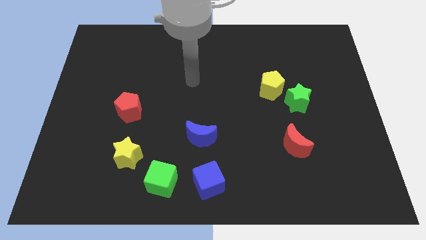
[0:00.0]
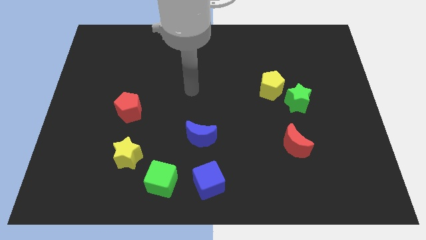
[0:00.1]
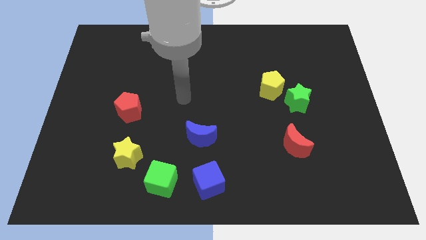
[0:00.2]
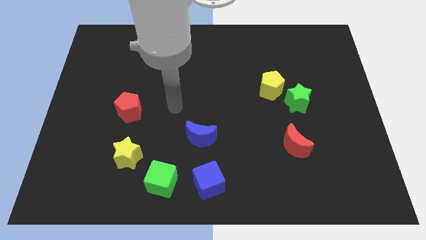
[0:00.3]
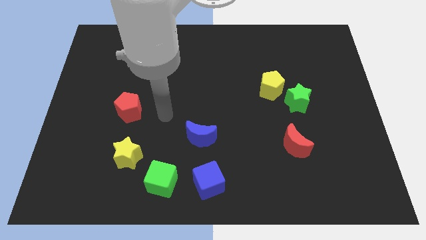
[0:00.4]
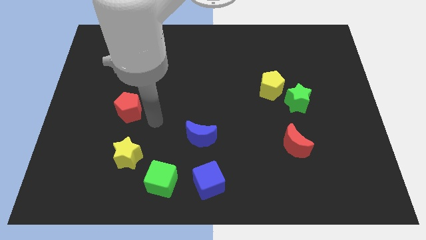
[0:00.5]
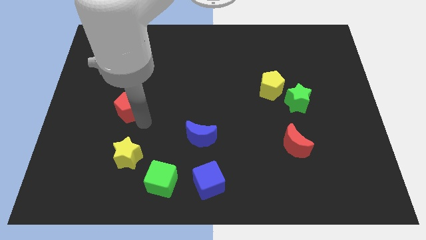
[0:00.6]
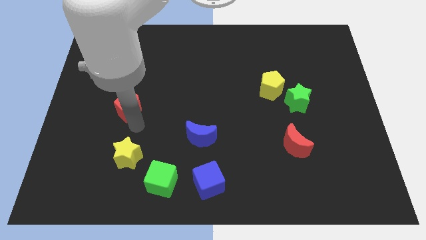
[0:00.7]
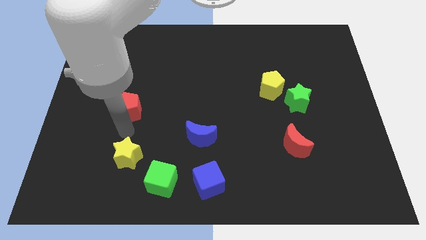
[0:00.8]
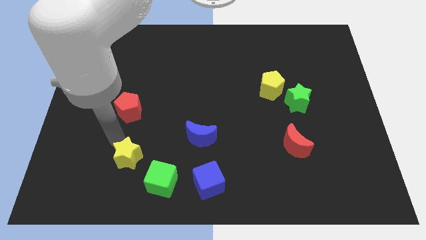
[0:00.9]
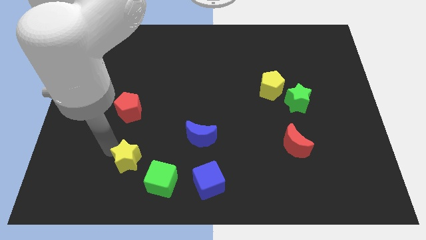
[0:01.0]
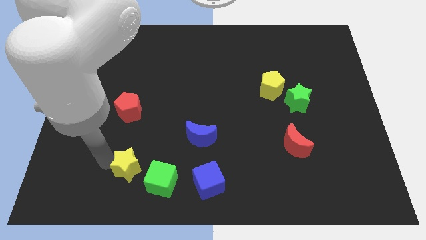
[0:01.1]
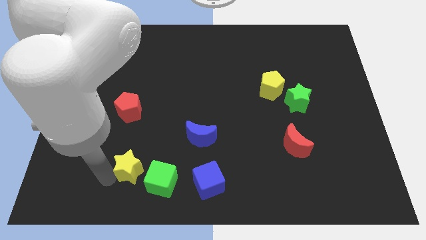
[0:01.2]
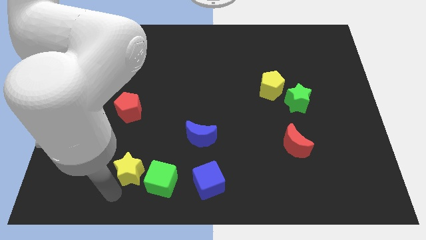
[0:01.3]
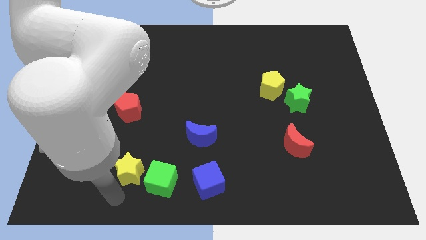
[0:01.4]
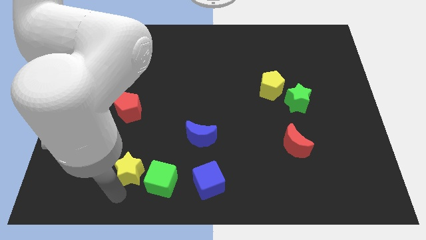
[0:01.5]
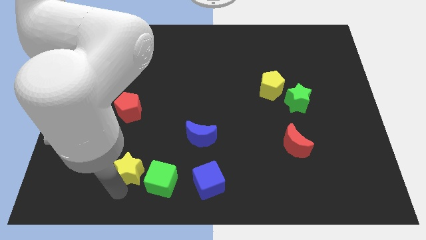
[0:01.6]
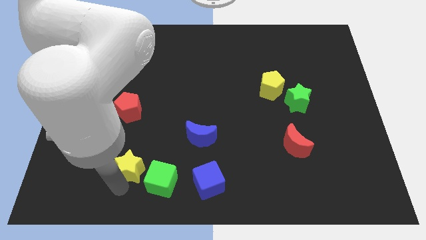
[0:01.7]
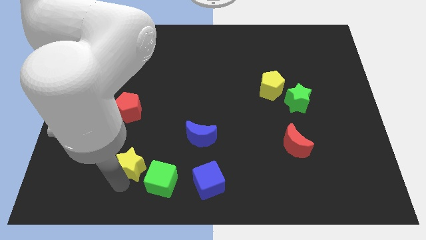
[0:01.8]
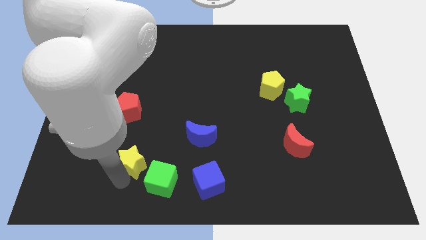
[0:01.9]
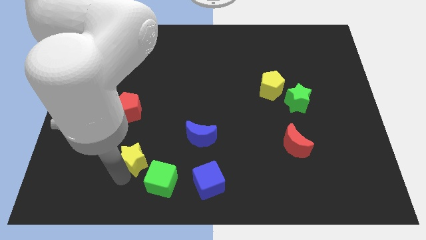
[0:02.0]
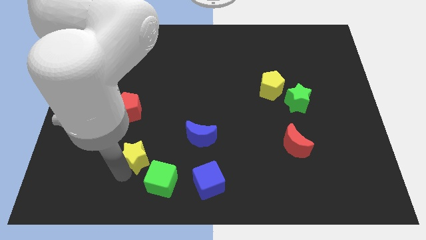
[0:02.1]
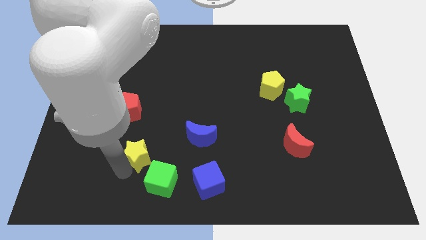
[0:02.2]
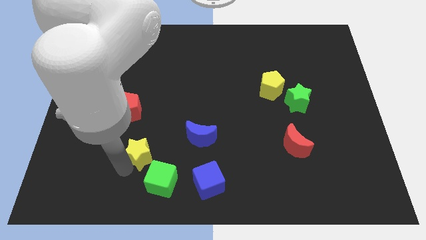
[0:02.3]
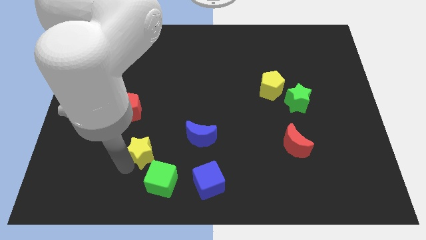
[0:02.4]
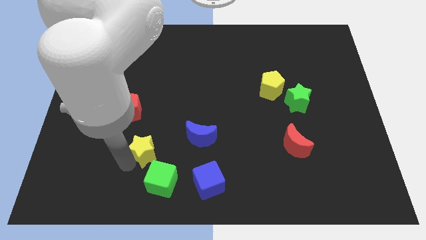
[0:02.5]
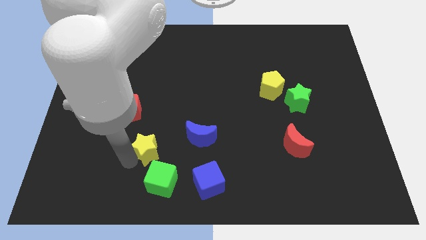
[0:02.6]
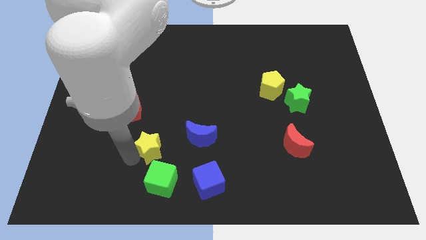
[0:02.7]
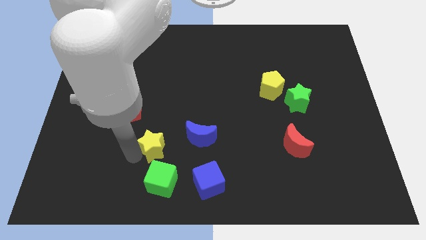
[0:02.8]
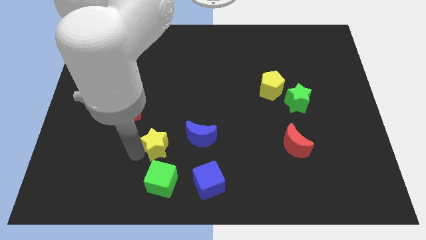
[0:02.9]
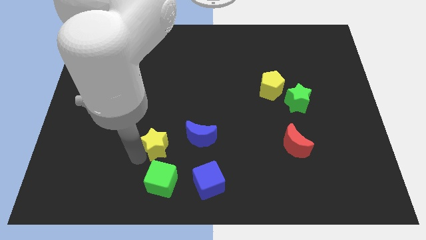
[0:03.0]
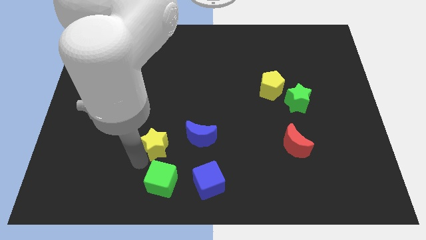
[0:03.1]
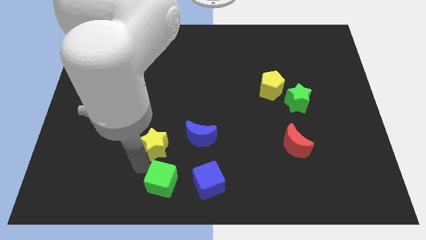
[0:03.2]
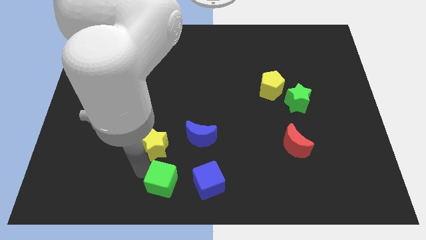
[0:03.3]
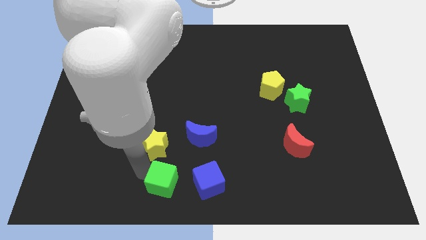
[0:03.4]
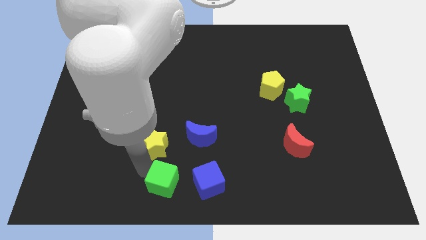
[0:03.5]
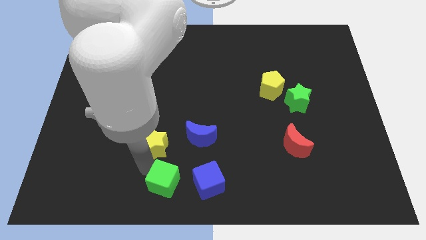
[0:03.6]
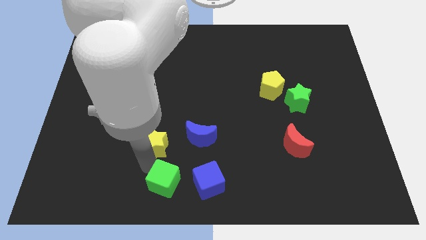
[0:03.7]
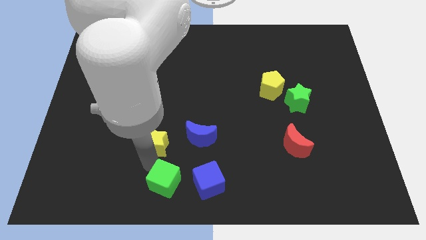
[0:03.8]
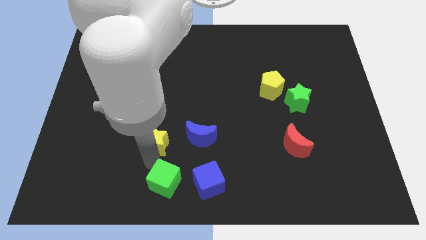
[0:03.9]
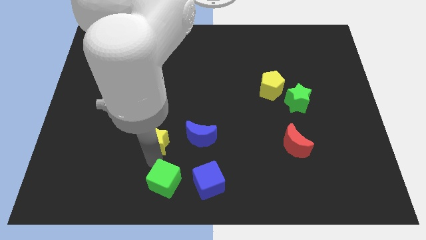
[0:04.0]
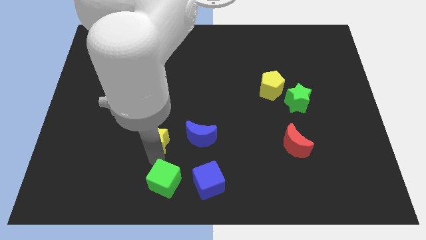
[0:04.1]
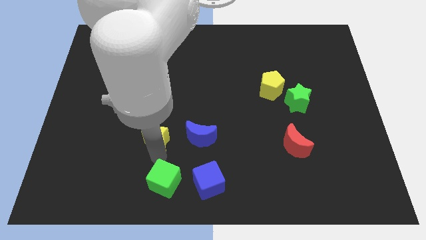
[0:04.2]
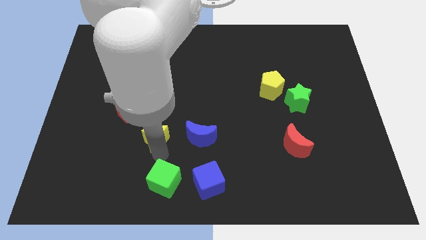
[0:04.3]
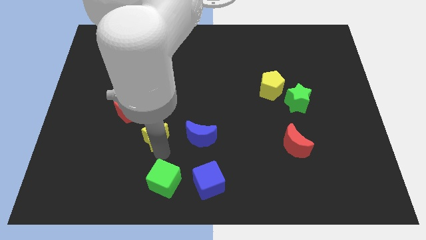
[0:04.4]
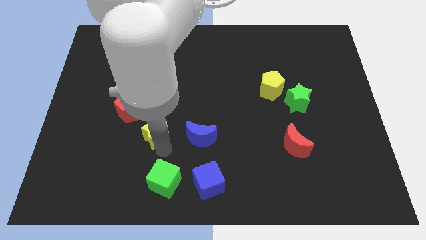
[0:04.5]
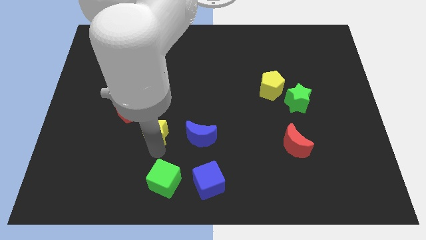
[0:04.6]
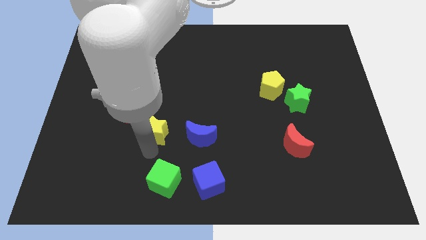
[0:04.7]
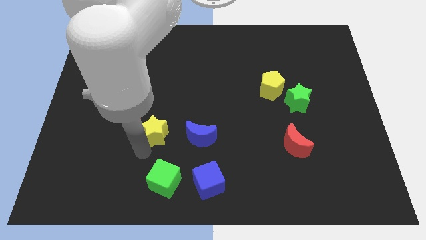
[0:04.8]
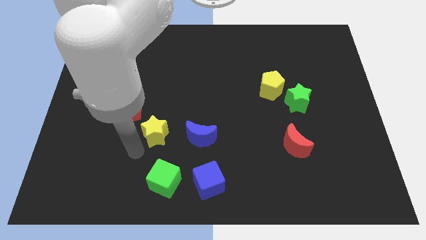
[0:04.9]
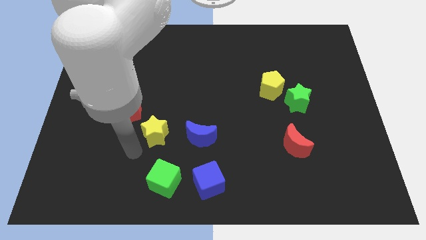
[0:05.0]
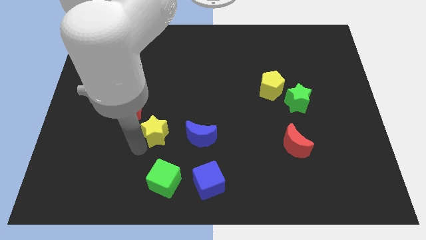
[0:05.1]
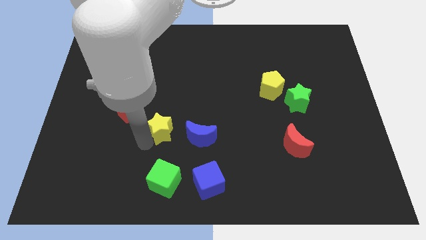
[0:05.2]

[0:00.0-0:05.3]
slide the yellow star to the top left of the blue moon

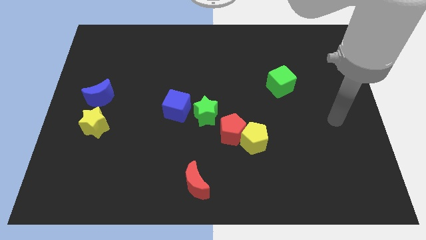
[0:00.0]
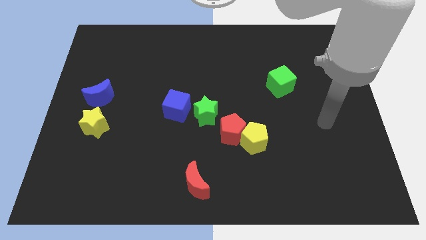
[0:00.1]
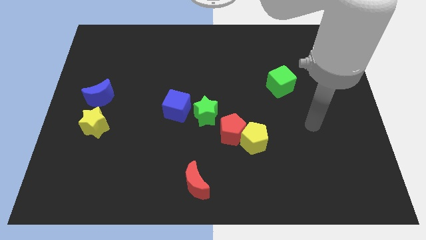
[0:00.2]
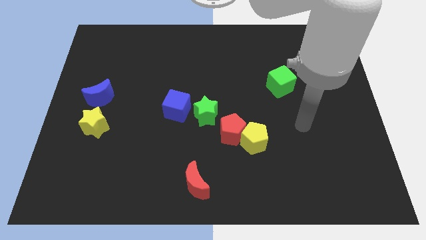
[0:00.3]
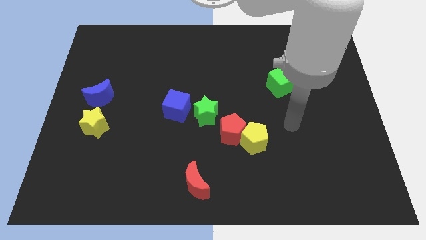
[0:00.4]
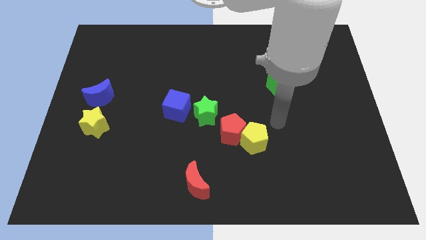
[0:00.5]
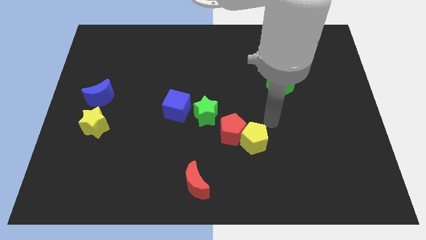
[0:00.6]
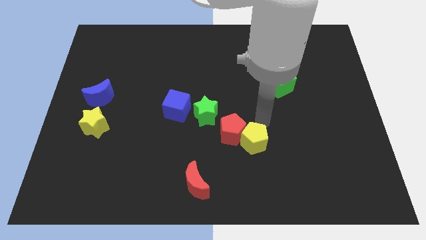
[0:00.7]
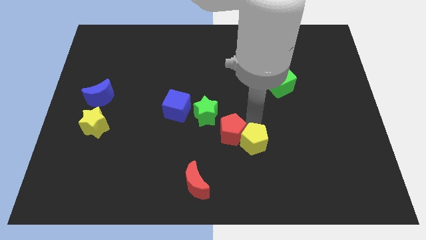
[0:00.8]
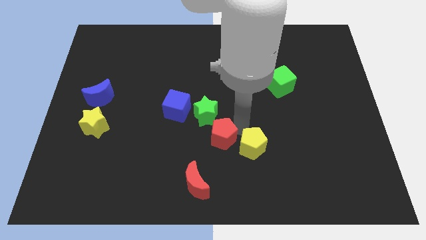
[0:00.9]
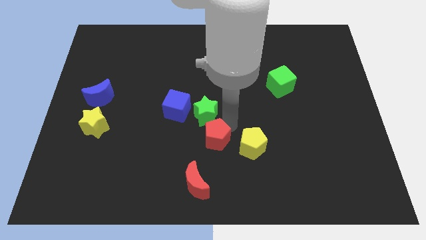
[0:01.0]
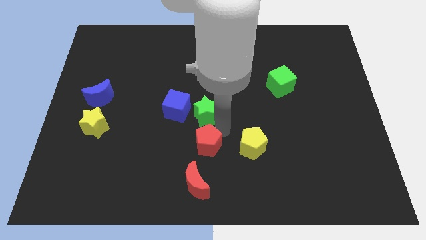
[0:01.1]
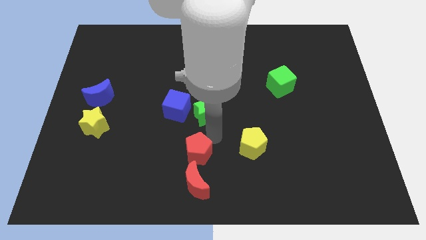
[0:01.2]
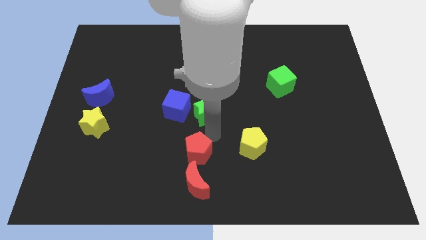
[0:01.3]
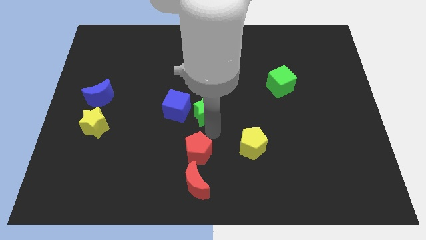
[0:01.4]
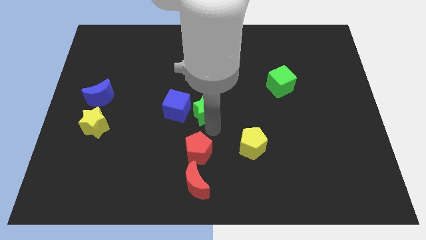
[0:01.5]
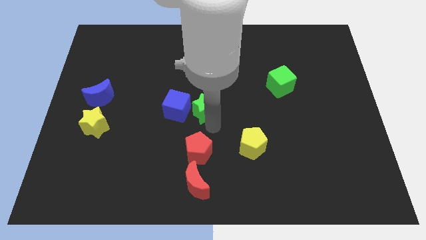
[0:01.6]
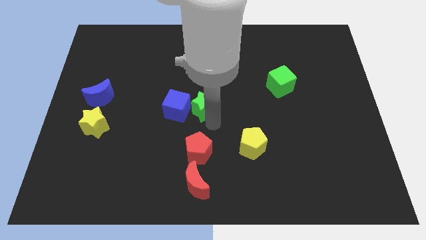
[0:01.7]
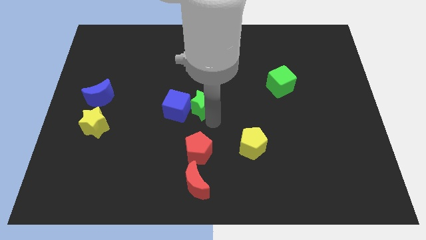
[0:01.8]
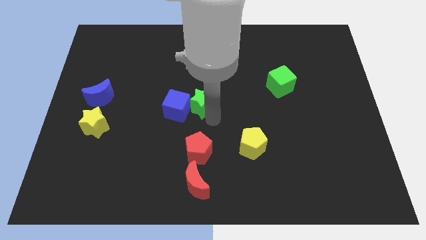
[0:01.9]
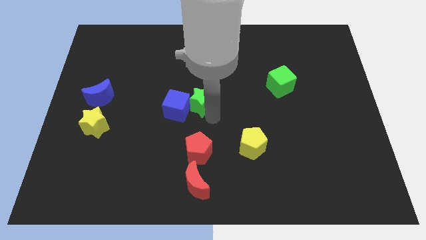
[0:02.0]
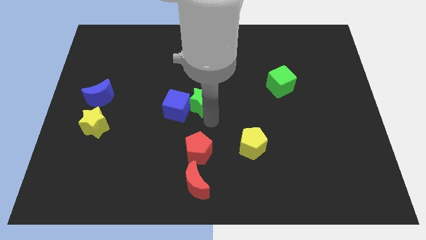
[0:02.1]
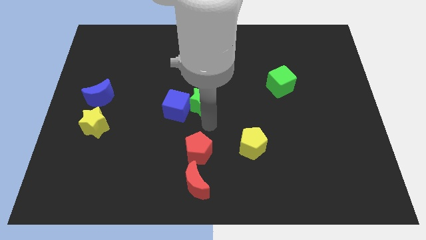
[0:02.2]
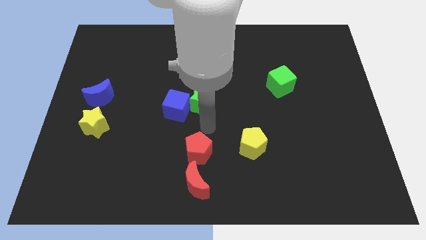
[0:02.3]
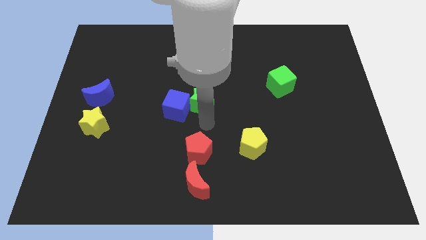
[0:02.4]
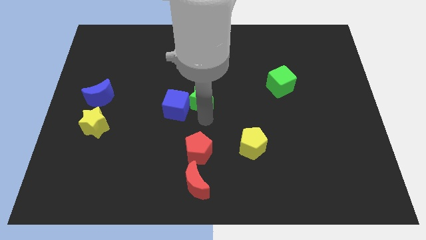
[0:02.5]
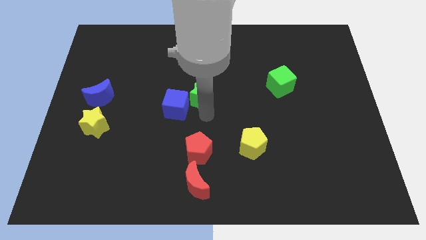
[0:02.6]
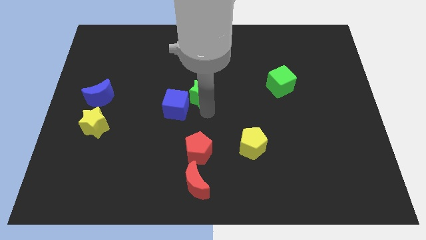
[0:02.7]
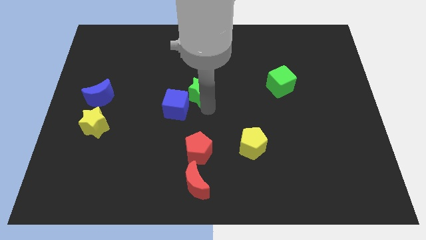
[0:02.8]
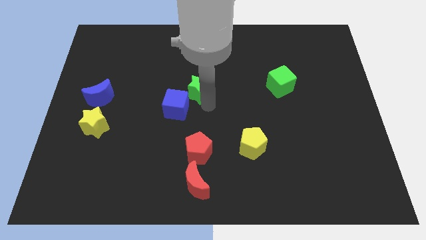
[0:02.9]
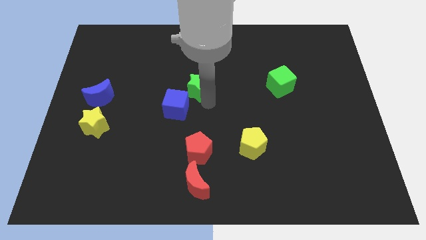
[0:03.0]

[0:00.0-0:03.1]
push the green star above the blue cube
